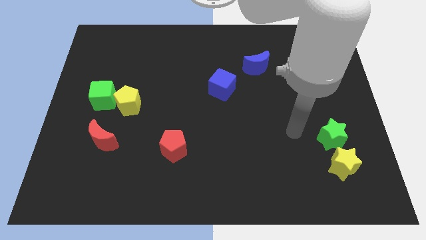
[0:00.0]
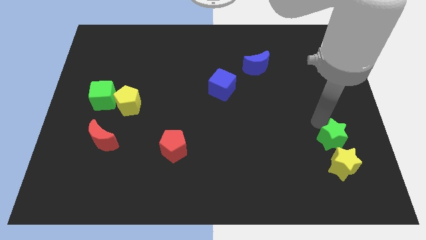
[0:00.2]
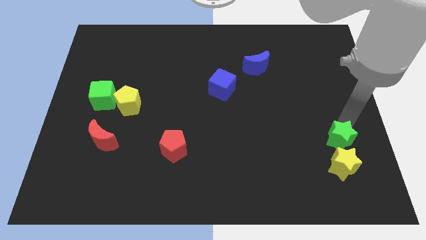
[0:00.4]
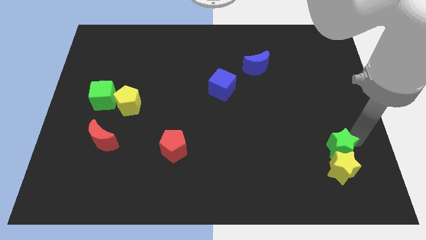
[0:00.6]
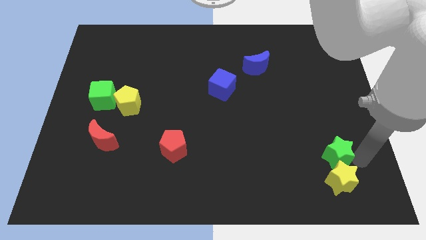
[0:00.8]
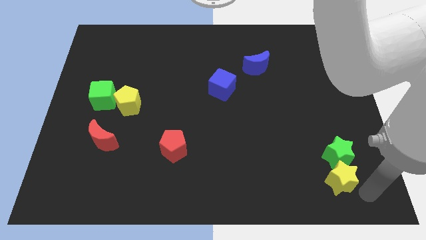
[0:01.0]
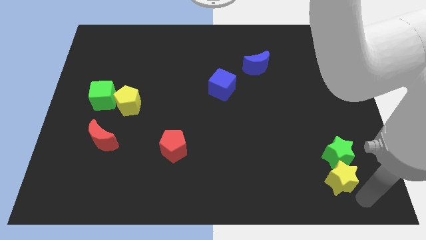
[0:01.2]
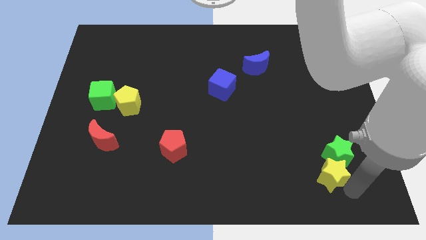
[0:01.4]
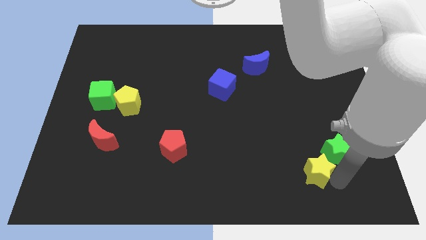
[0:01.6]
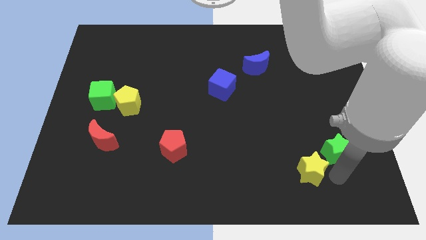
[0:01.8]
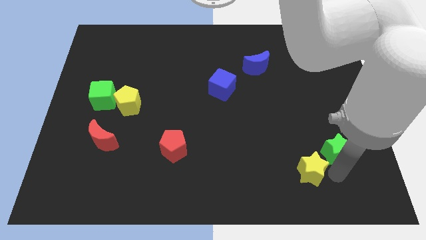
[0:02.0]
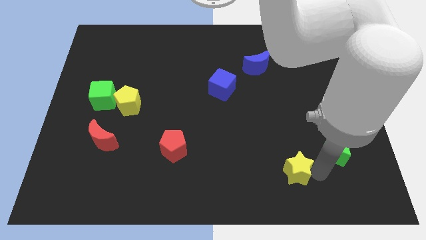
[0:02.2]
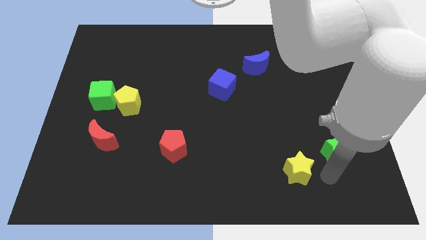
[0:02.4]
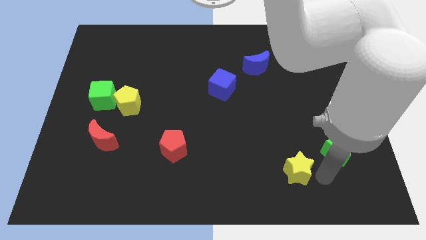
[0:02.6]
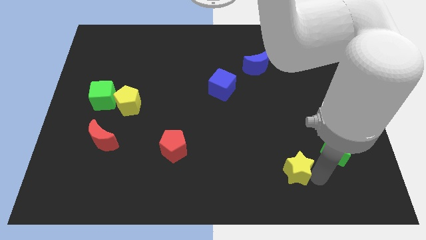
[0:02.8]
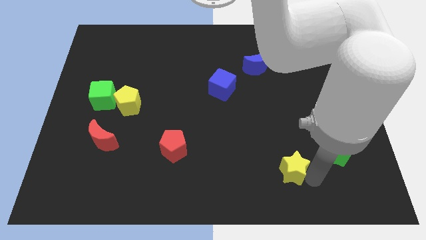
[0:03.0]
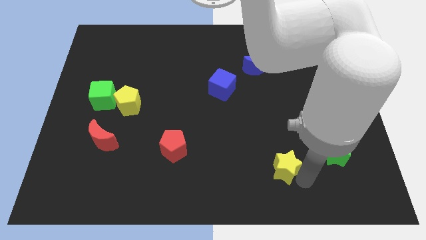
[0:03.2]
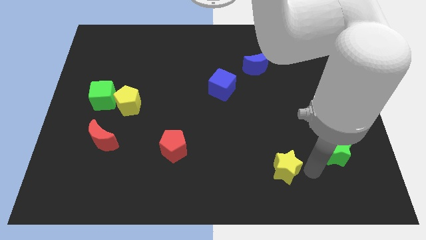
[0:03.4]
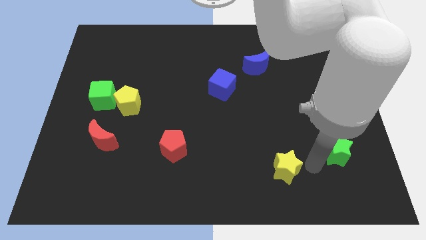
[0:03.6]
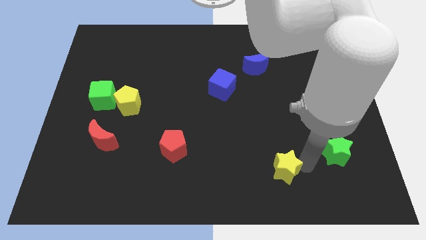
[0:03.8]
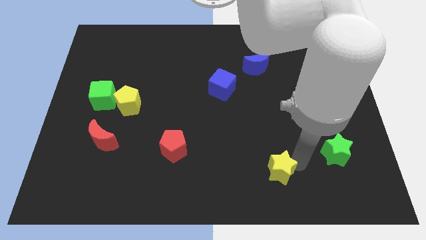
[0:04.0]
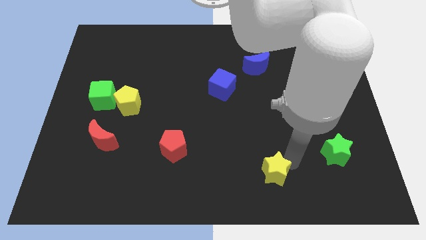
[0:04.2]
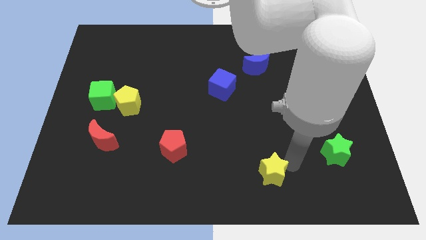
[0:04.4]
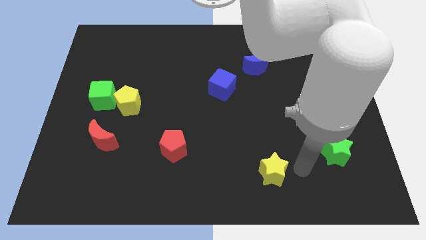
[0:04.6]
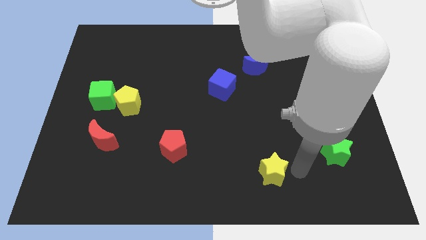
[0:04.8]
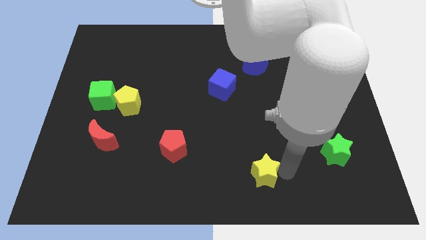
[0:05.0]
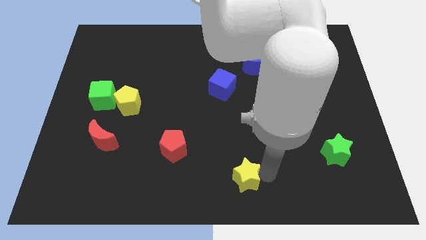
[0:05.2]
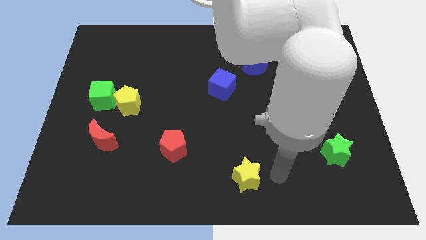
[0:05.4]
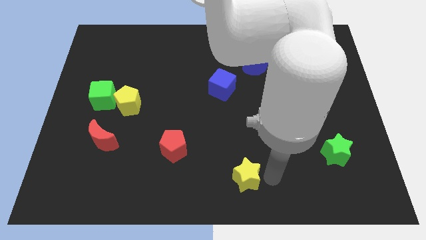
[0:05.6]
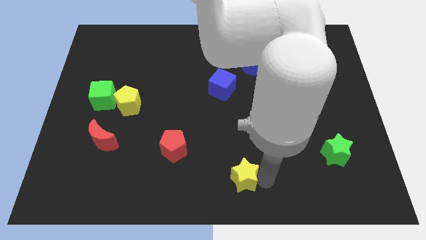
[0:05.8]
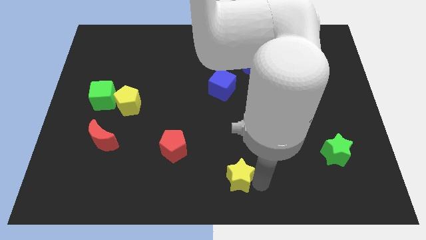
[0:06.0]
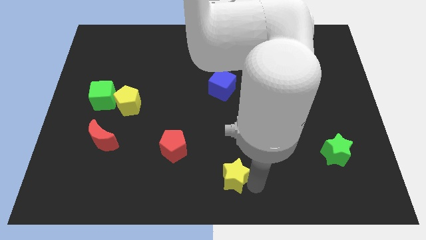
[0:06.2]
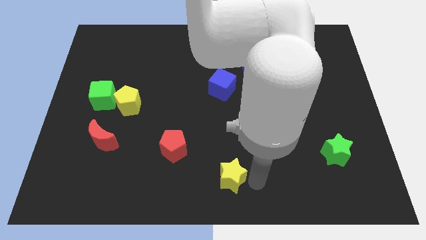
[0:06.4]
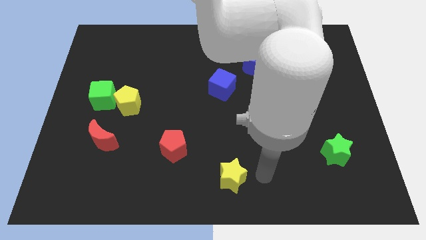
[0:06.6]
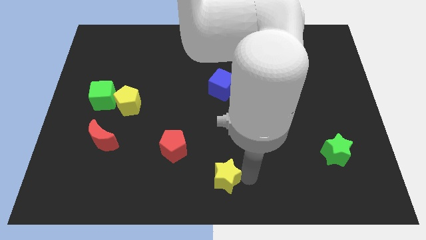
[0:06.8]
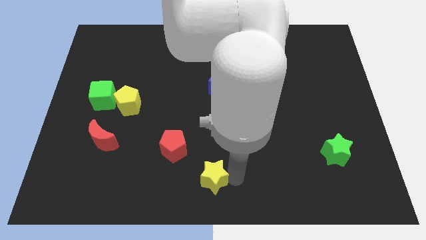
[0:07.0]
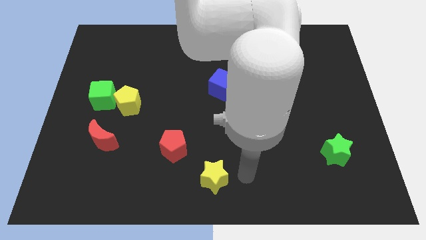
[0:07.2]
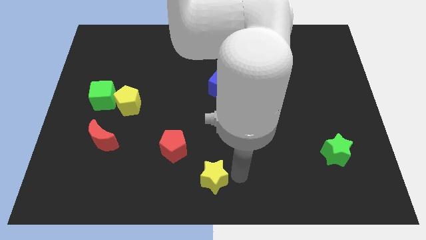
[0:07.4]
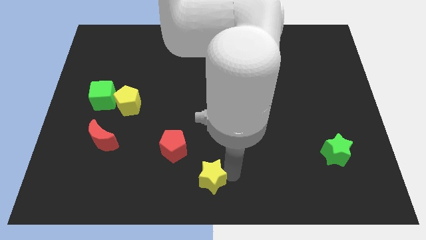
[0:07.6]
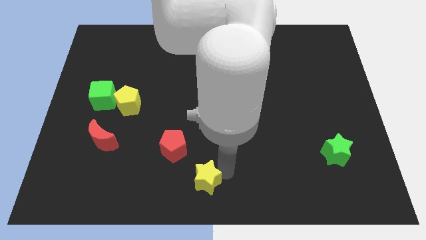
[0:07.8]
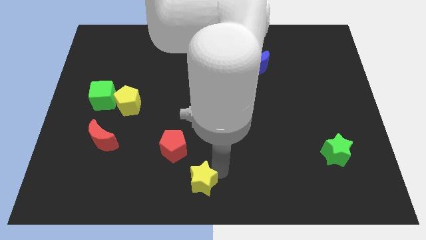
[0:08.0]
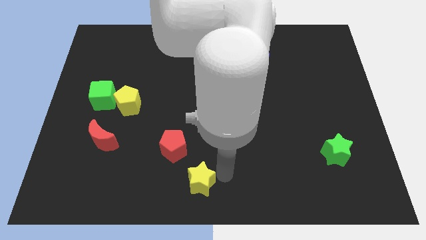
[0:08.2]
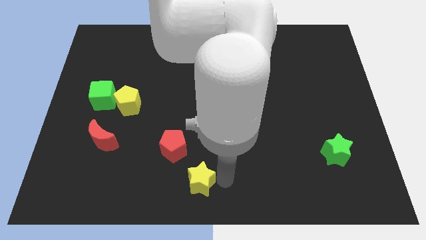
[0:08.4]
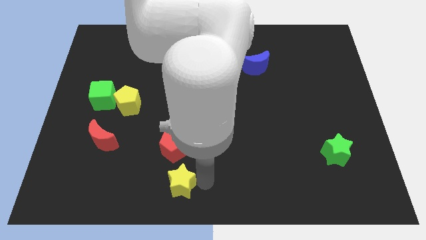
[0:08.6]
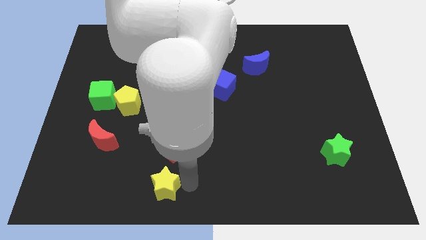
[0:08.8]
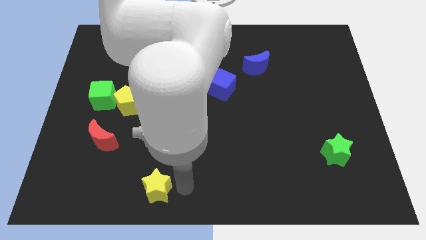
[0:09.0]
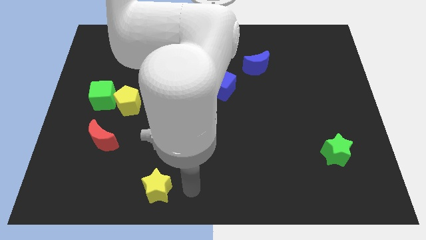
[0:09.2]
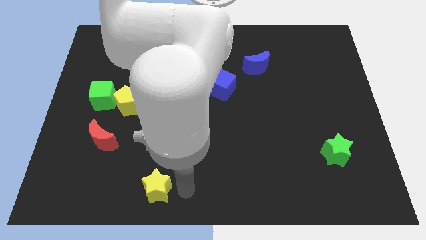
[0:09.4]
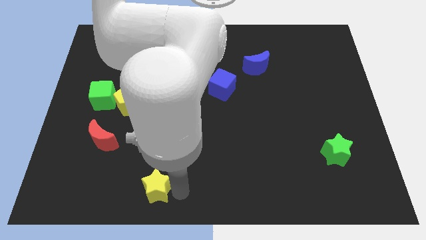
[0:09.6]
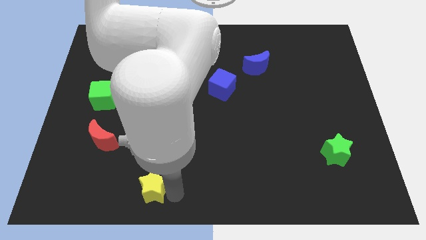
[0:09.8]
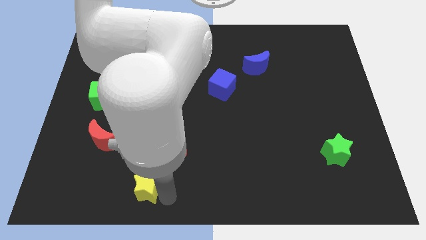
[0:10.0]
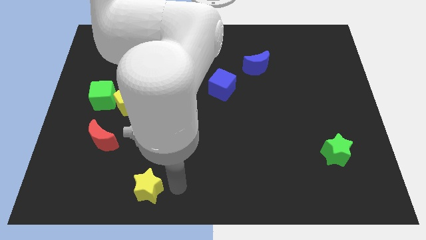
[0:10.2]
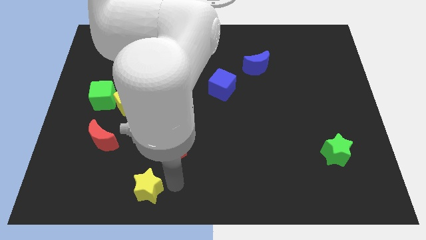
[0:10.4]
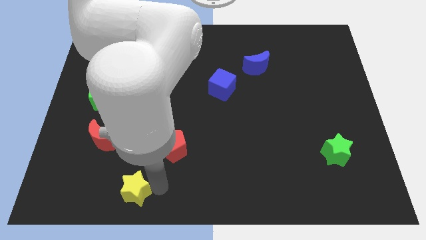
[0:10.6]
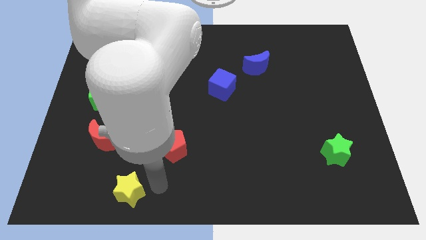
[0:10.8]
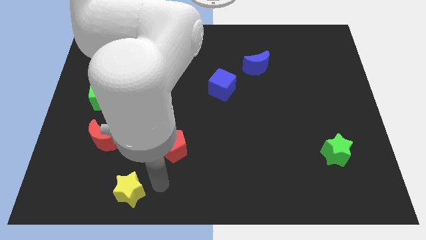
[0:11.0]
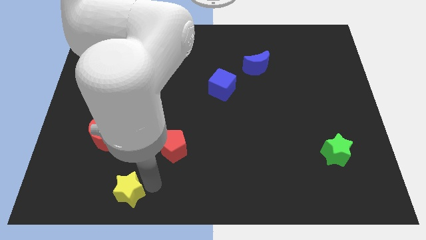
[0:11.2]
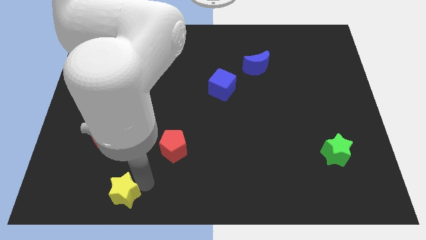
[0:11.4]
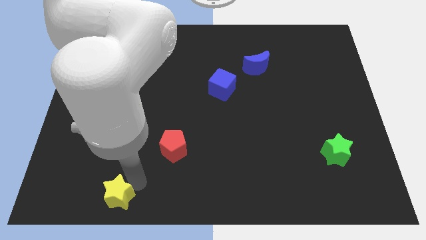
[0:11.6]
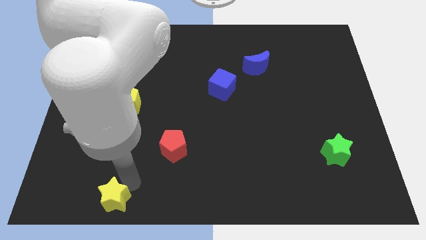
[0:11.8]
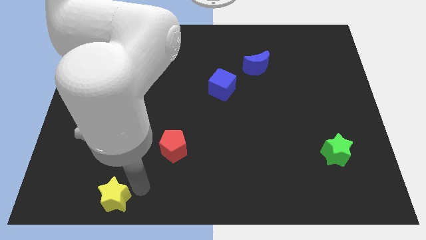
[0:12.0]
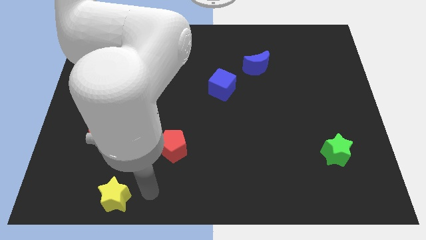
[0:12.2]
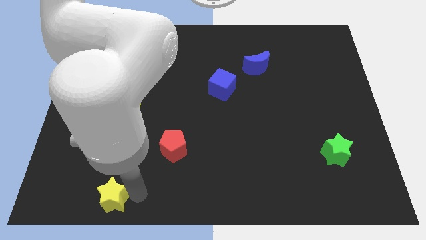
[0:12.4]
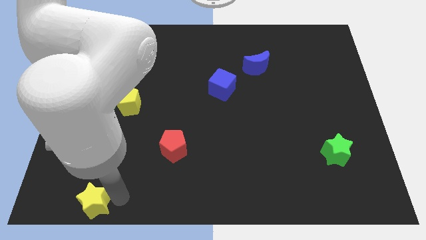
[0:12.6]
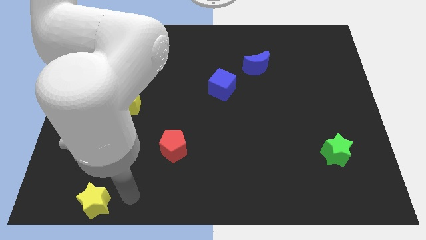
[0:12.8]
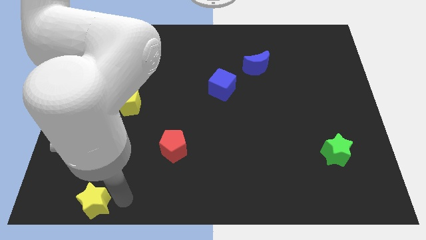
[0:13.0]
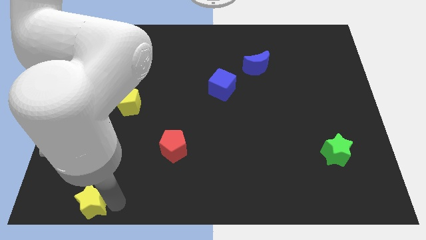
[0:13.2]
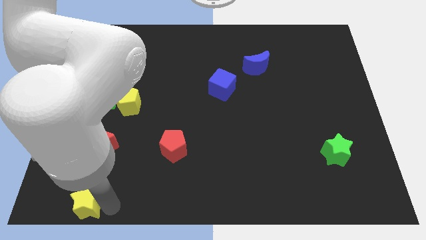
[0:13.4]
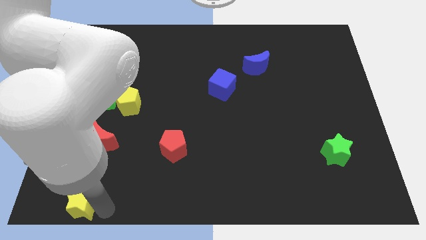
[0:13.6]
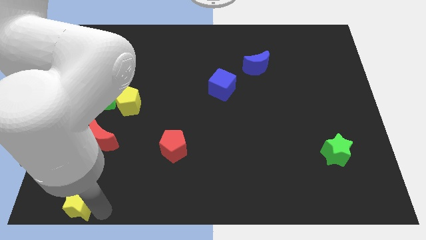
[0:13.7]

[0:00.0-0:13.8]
slide the yellow star to the bottom left corner
